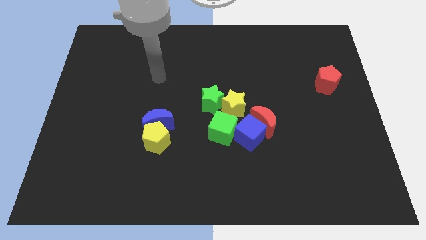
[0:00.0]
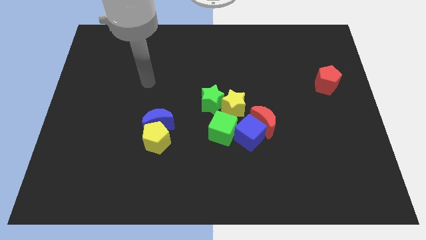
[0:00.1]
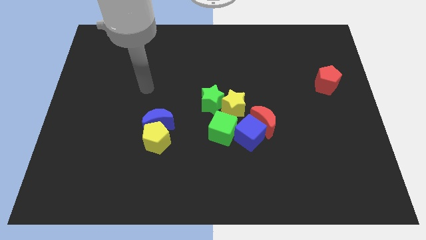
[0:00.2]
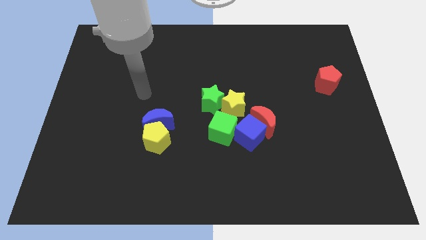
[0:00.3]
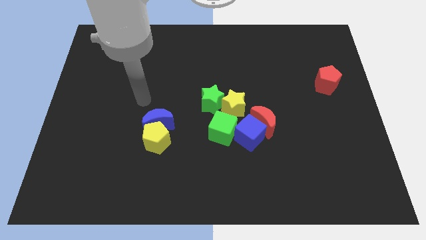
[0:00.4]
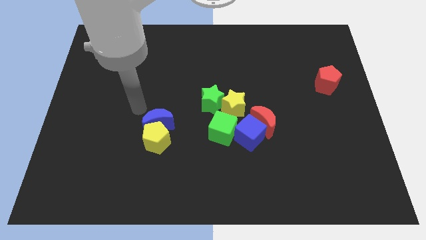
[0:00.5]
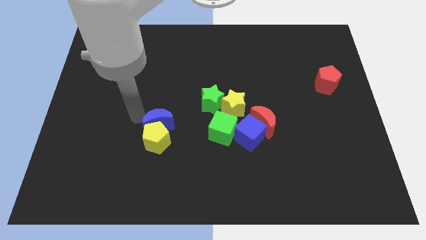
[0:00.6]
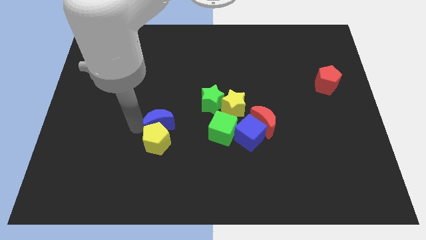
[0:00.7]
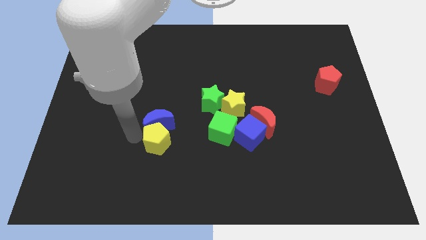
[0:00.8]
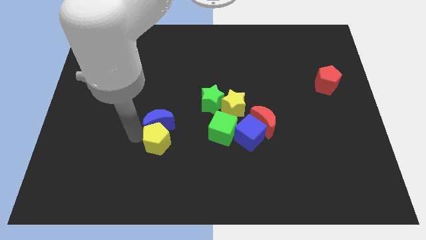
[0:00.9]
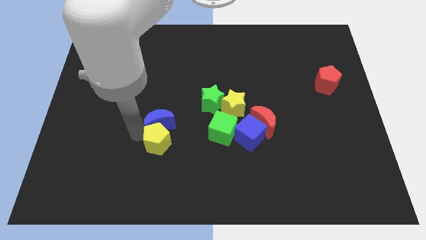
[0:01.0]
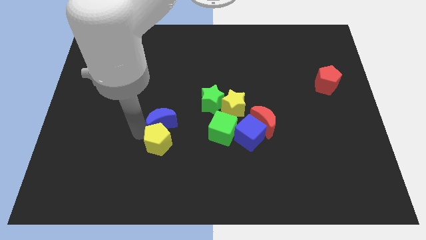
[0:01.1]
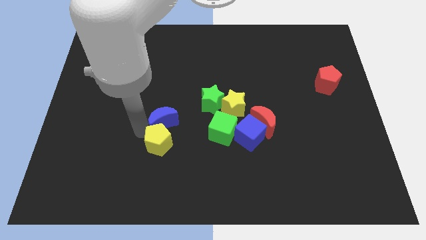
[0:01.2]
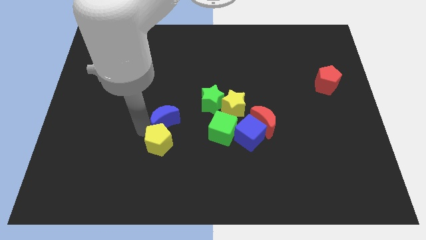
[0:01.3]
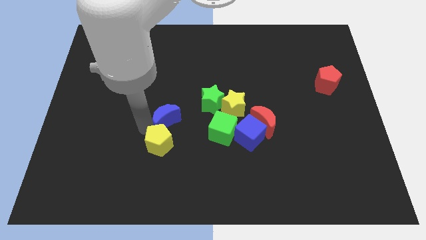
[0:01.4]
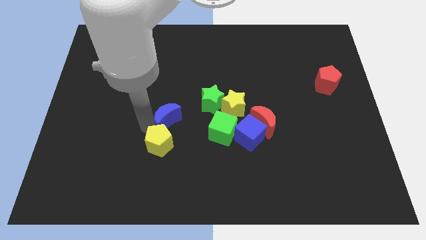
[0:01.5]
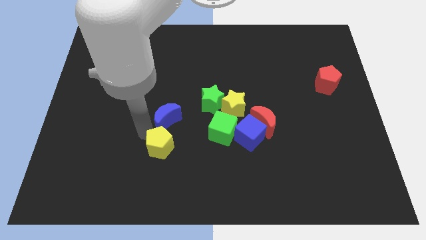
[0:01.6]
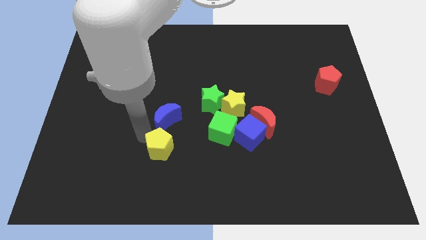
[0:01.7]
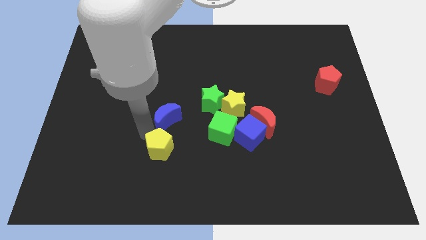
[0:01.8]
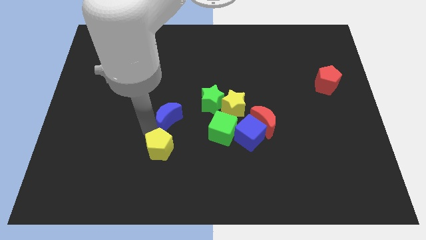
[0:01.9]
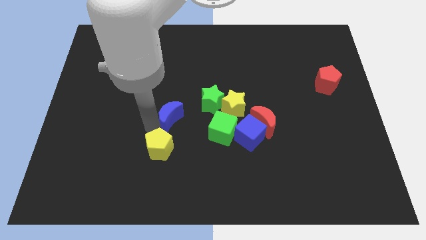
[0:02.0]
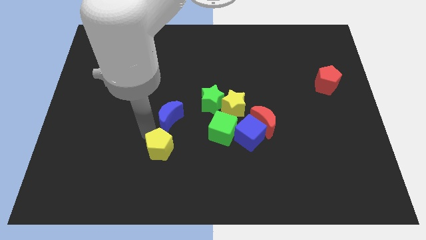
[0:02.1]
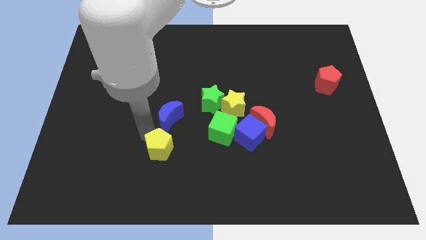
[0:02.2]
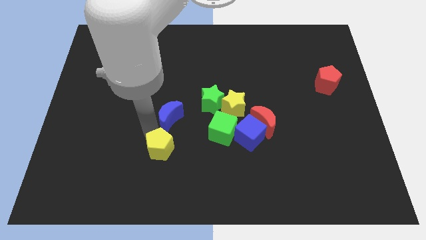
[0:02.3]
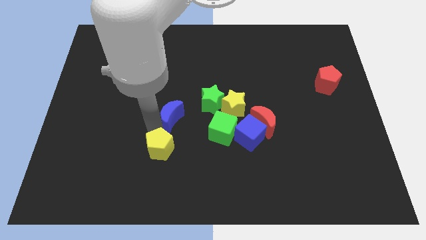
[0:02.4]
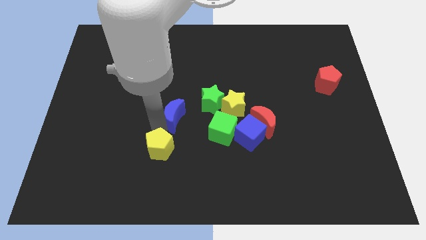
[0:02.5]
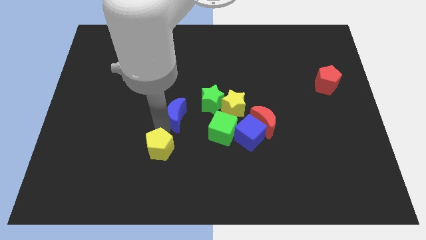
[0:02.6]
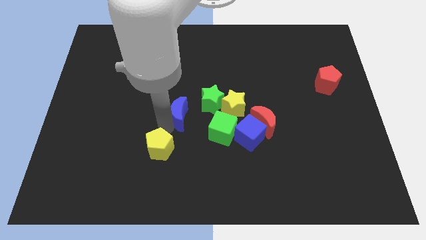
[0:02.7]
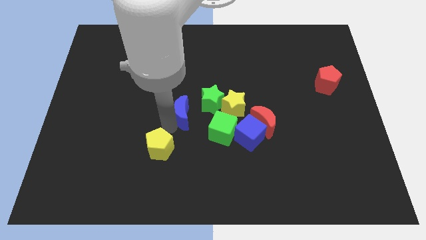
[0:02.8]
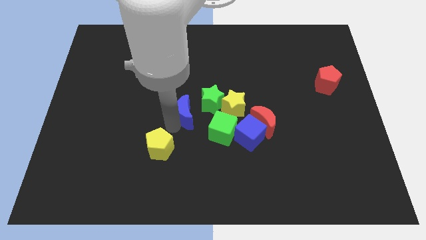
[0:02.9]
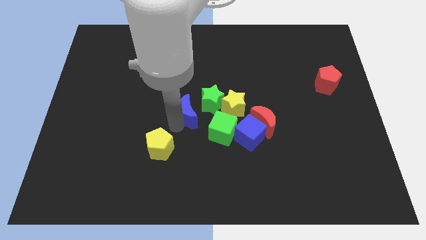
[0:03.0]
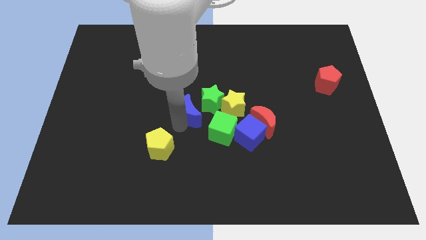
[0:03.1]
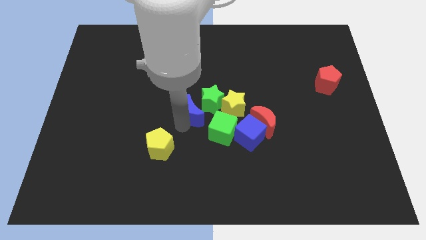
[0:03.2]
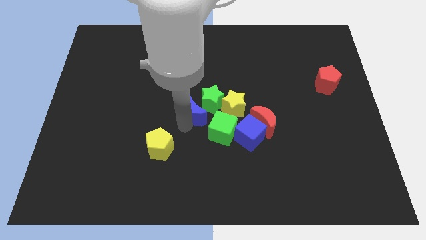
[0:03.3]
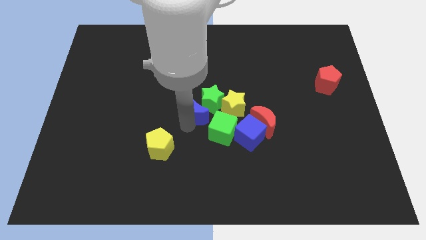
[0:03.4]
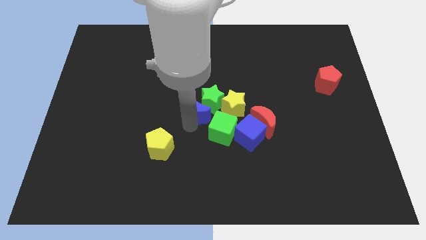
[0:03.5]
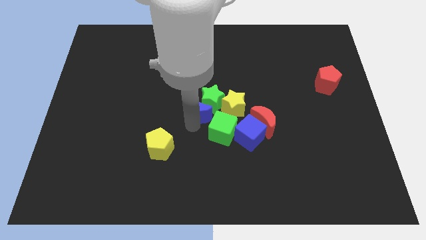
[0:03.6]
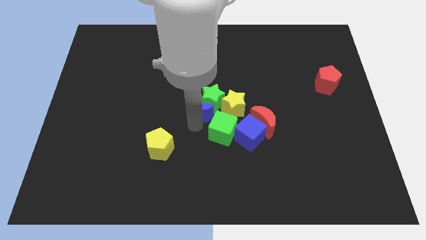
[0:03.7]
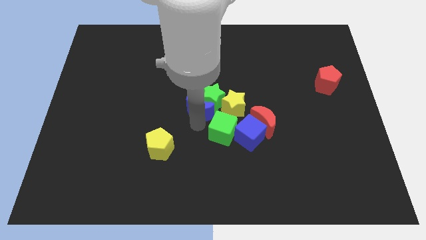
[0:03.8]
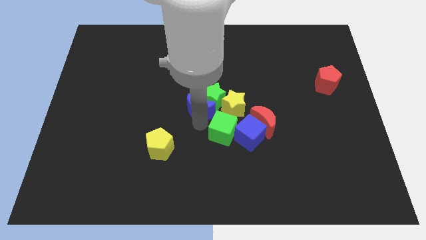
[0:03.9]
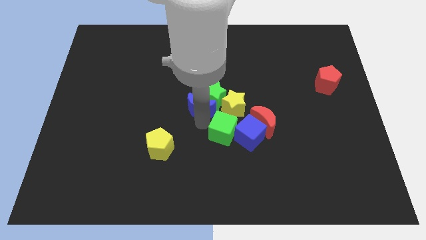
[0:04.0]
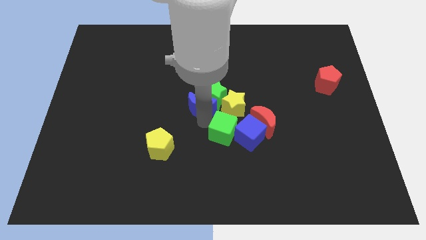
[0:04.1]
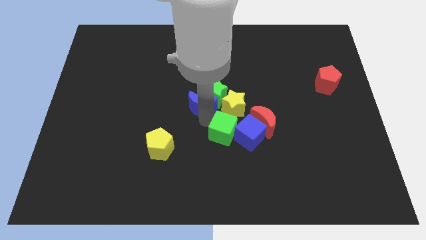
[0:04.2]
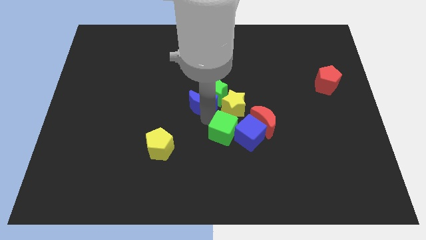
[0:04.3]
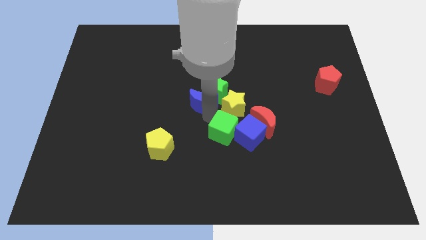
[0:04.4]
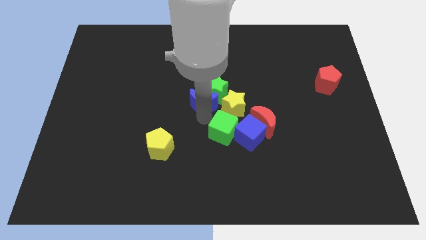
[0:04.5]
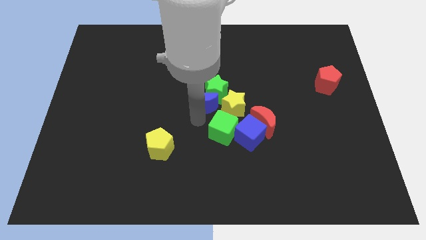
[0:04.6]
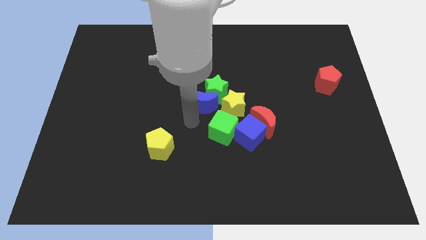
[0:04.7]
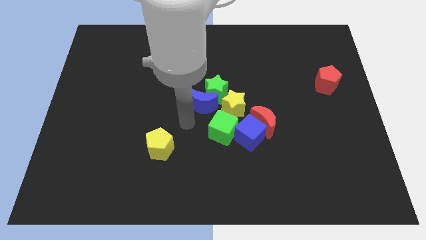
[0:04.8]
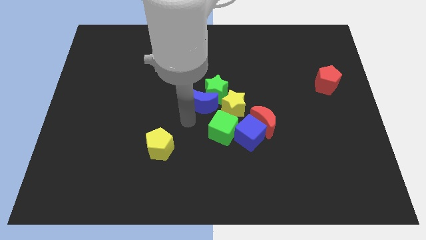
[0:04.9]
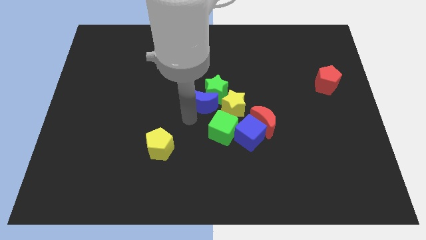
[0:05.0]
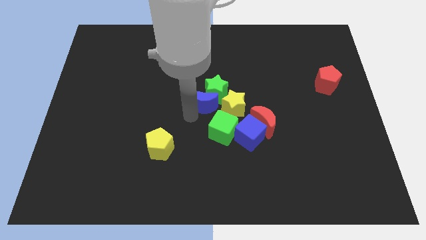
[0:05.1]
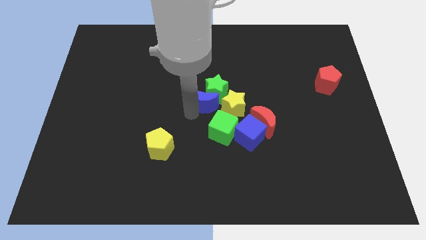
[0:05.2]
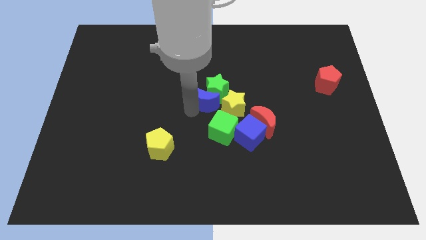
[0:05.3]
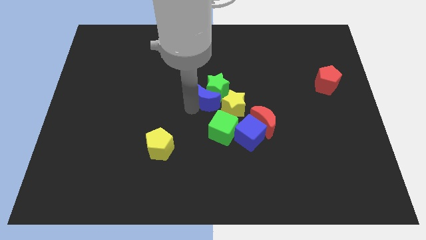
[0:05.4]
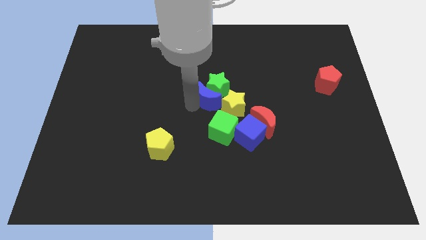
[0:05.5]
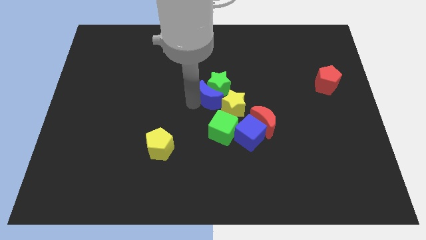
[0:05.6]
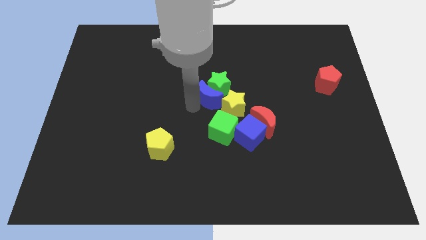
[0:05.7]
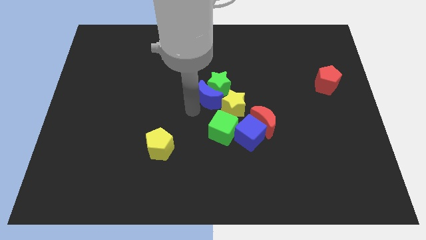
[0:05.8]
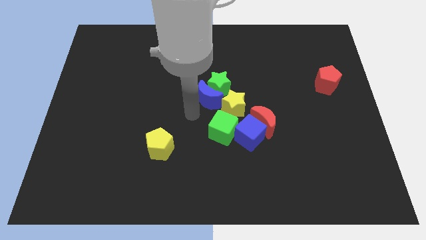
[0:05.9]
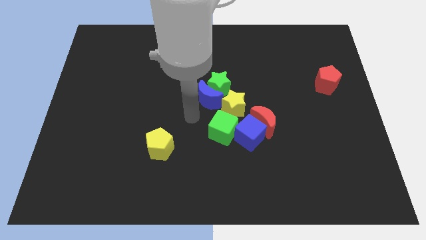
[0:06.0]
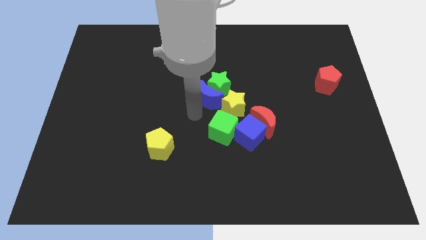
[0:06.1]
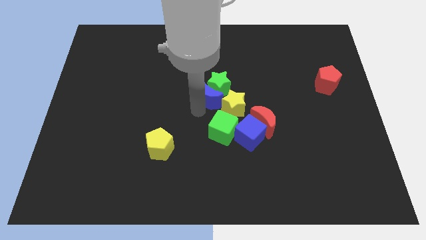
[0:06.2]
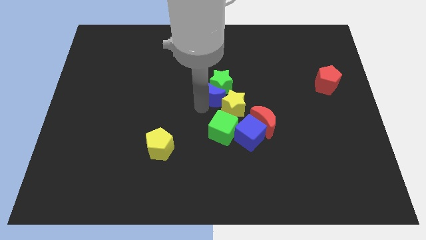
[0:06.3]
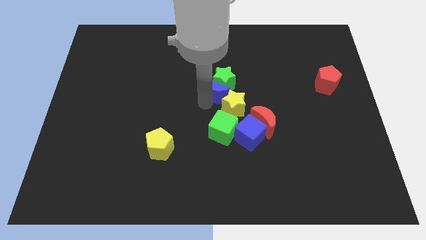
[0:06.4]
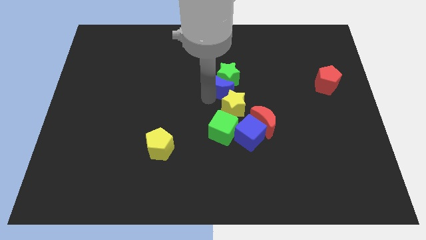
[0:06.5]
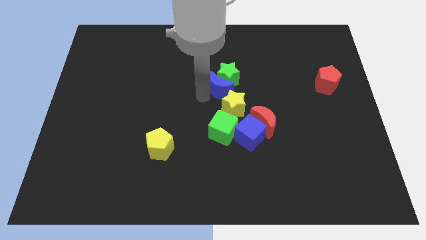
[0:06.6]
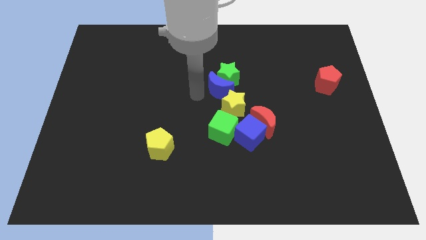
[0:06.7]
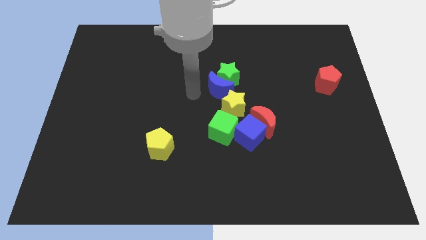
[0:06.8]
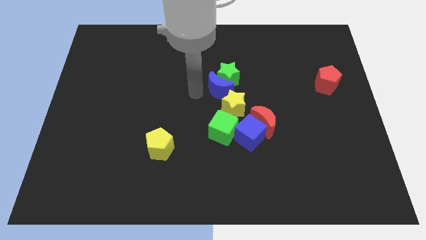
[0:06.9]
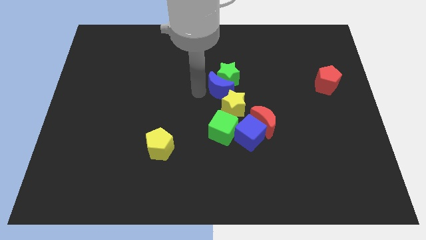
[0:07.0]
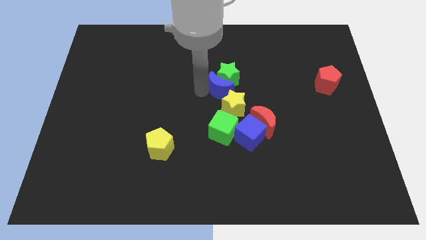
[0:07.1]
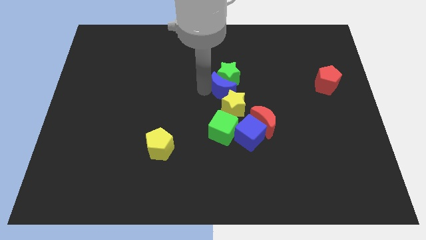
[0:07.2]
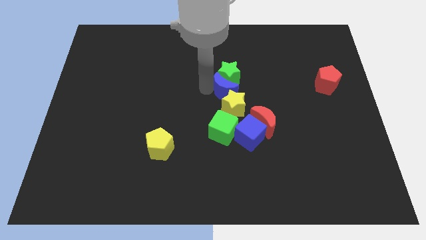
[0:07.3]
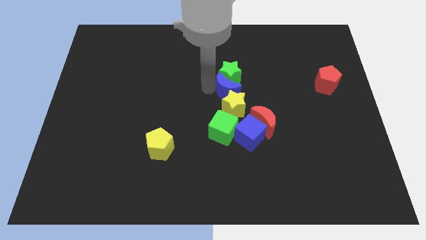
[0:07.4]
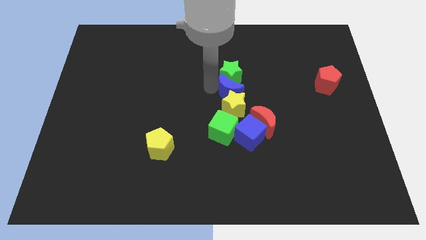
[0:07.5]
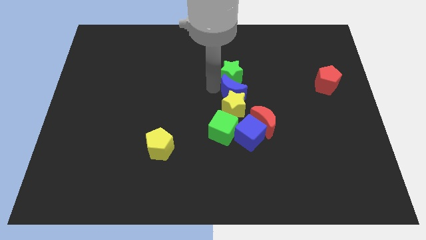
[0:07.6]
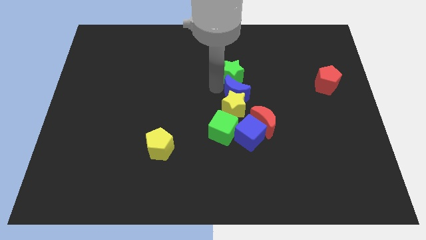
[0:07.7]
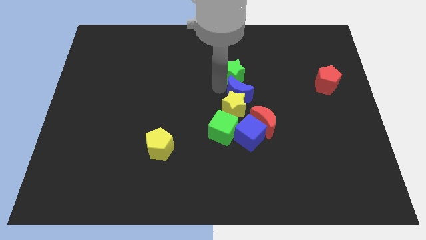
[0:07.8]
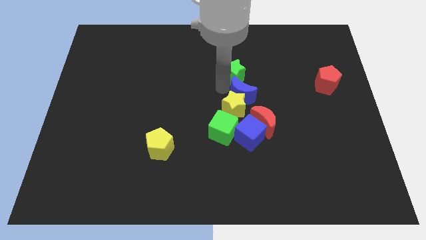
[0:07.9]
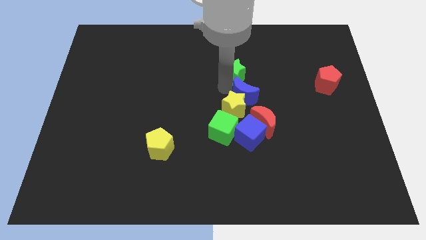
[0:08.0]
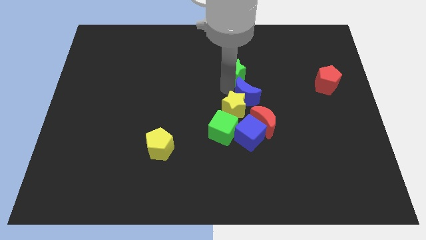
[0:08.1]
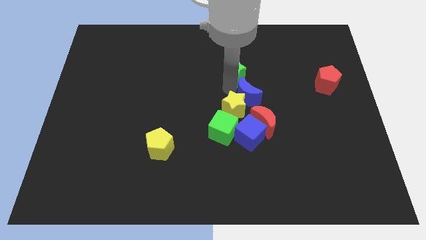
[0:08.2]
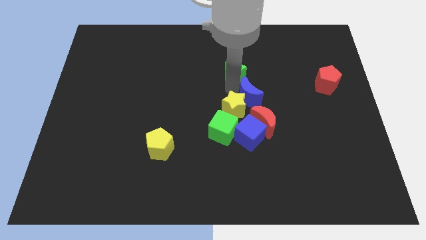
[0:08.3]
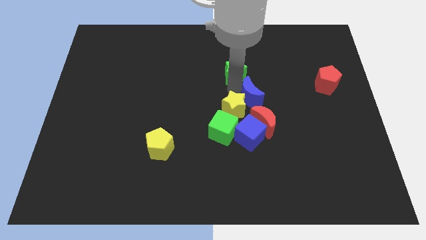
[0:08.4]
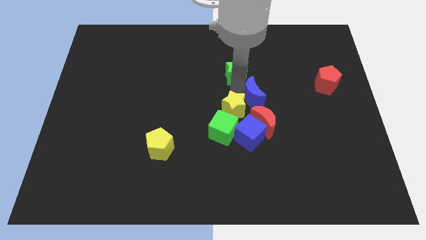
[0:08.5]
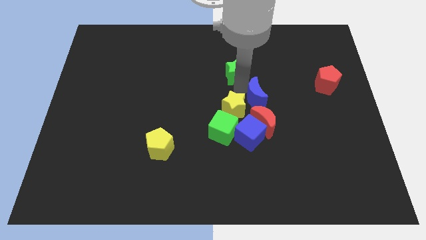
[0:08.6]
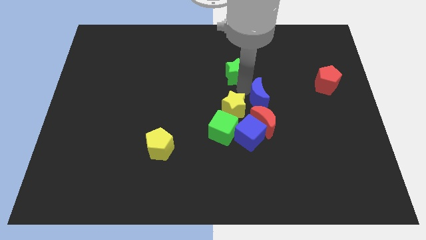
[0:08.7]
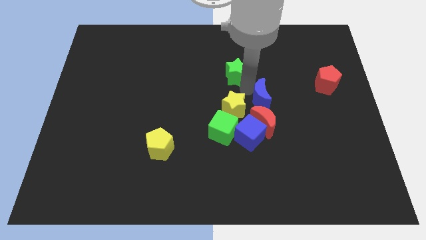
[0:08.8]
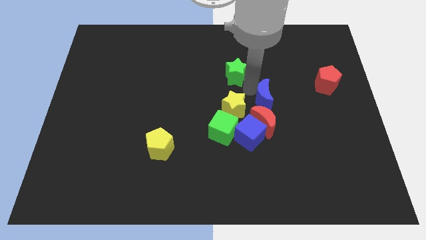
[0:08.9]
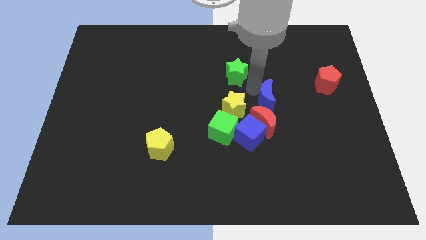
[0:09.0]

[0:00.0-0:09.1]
slide the blue moon to the top right side of the blue cube
